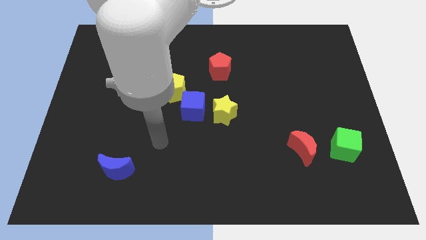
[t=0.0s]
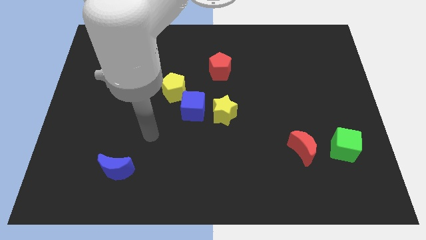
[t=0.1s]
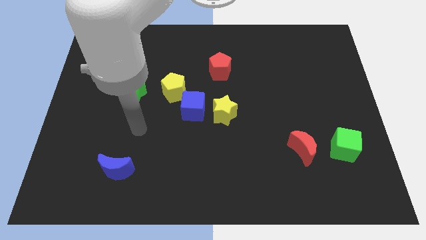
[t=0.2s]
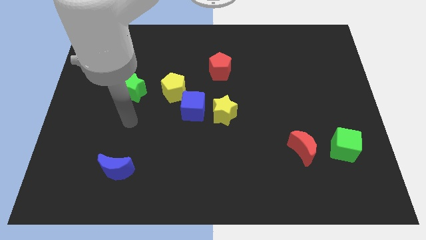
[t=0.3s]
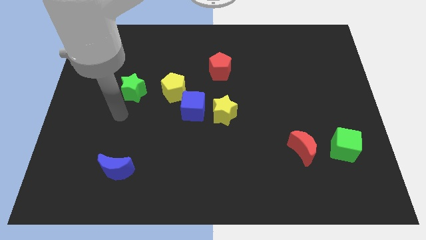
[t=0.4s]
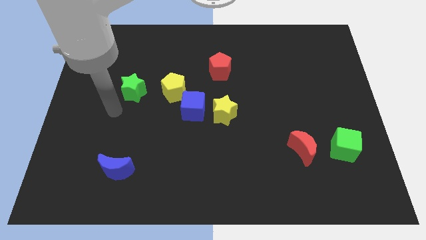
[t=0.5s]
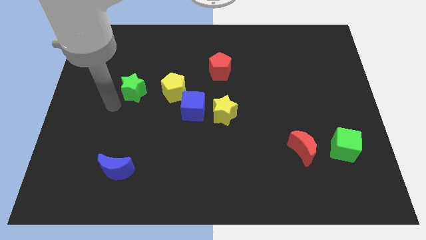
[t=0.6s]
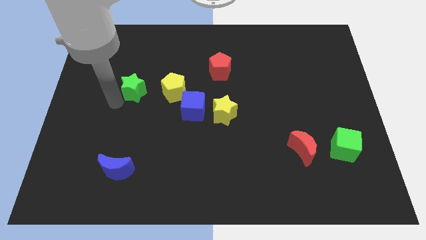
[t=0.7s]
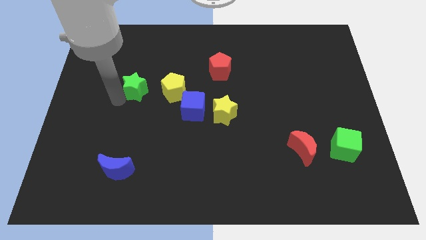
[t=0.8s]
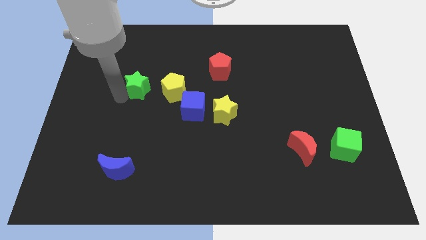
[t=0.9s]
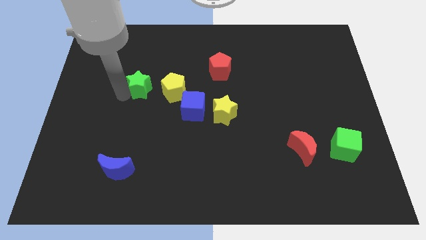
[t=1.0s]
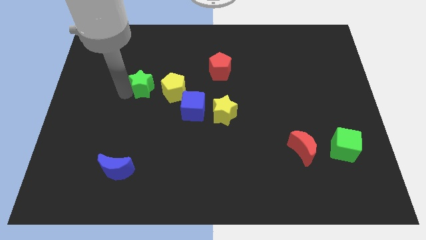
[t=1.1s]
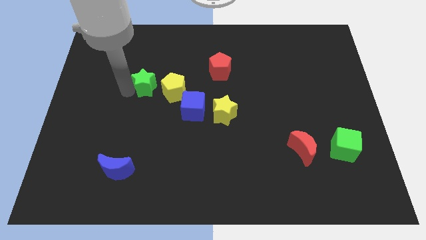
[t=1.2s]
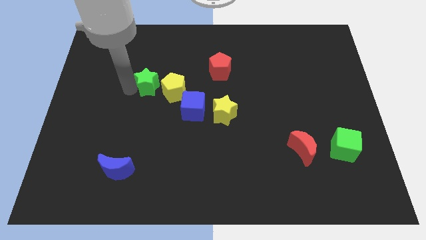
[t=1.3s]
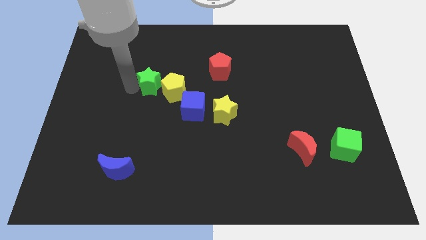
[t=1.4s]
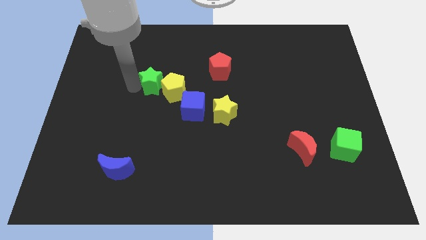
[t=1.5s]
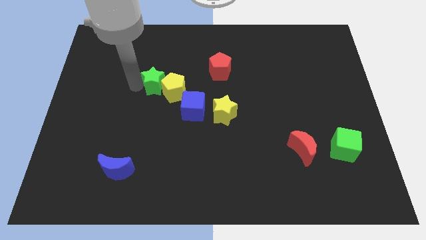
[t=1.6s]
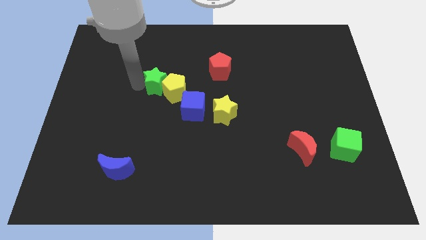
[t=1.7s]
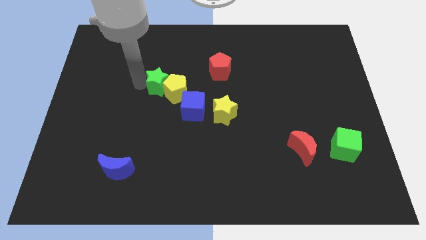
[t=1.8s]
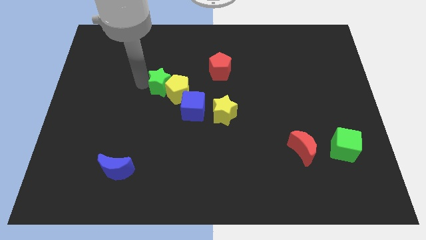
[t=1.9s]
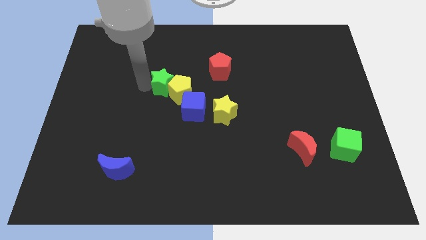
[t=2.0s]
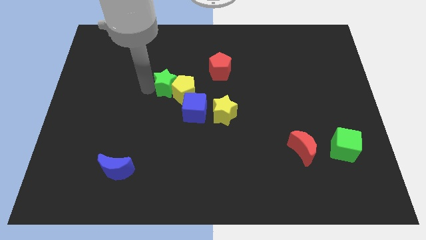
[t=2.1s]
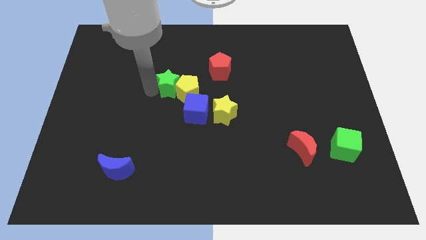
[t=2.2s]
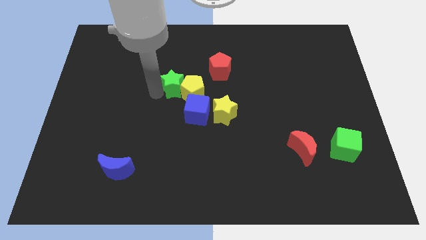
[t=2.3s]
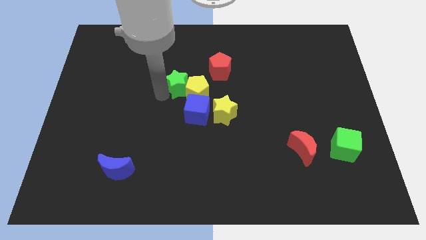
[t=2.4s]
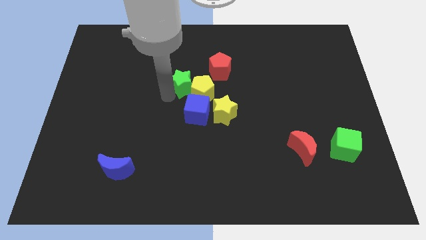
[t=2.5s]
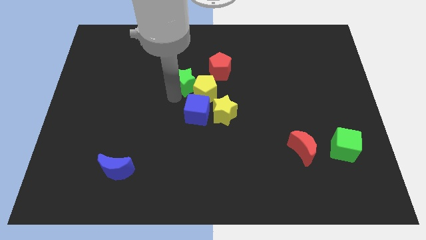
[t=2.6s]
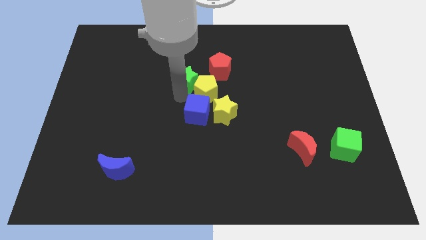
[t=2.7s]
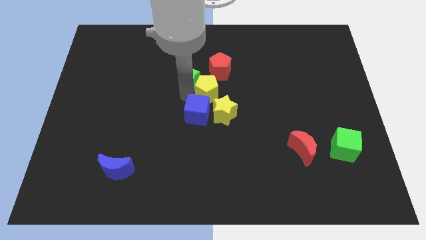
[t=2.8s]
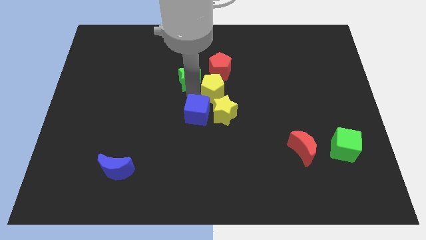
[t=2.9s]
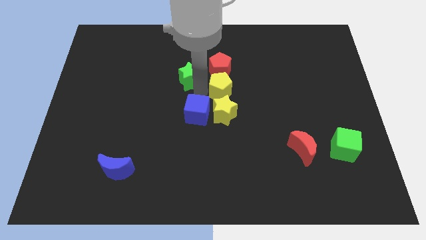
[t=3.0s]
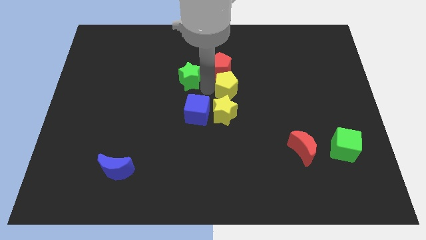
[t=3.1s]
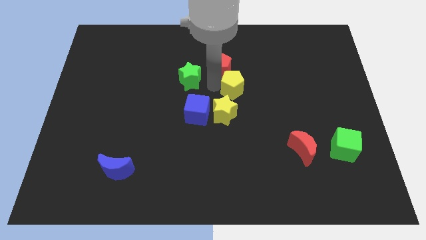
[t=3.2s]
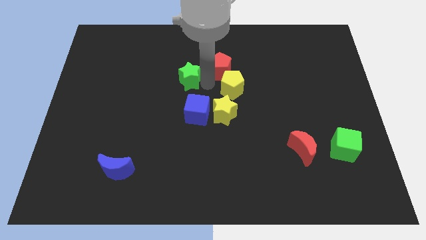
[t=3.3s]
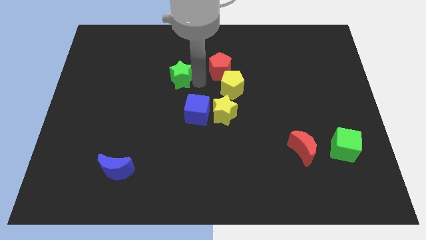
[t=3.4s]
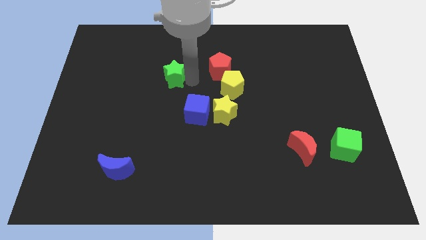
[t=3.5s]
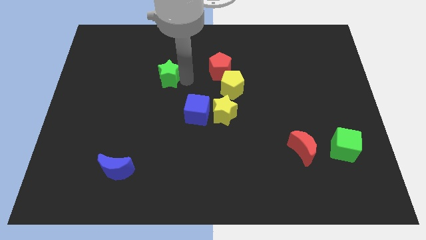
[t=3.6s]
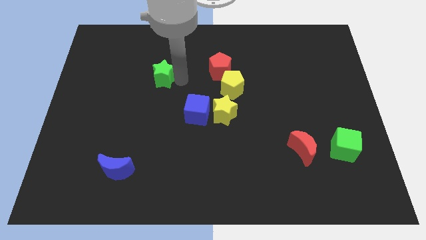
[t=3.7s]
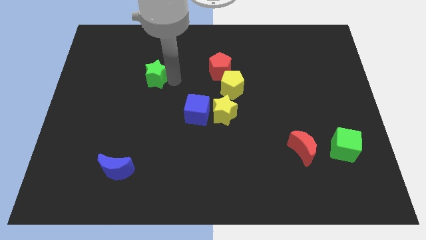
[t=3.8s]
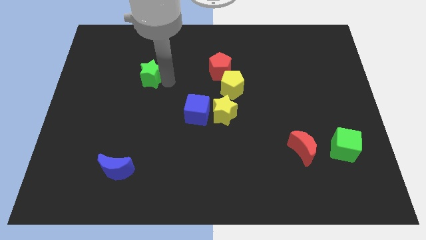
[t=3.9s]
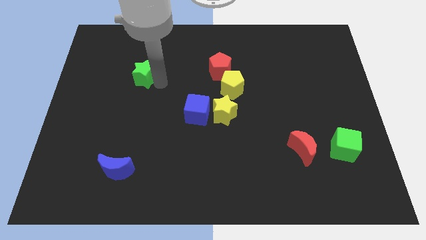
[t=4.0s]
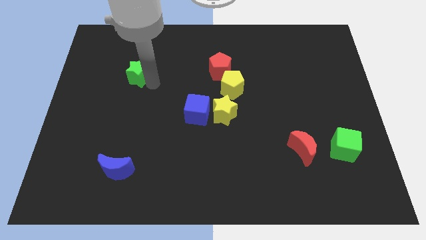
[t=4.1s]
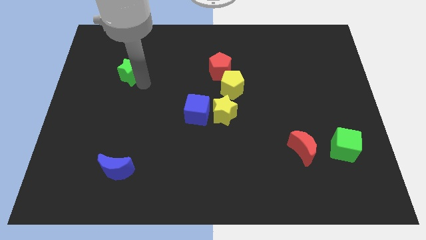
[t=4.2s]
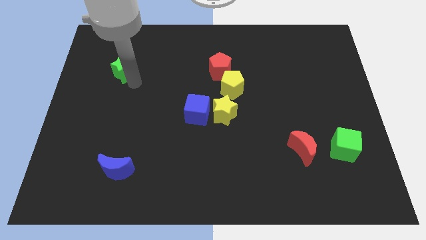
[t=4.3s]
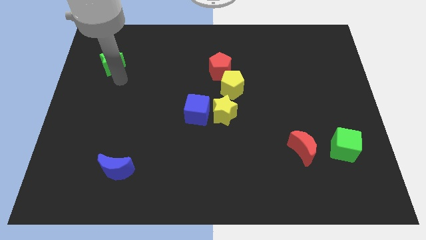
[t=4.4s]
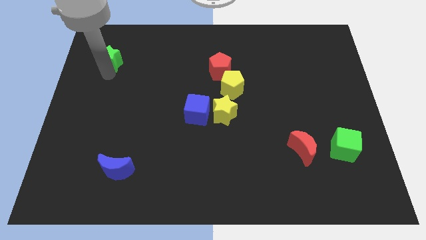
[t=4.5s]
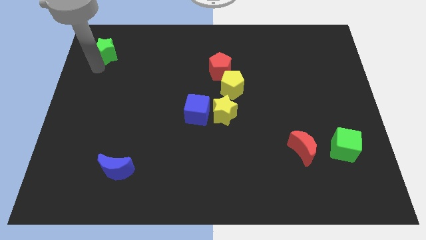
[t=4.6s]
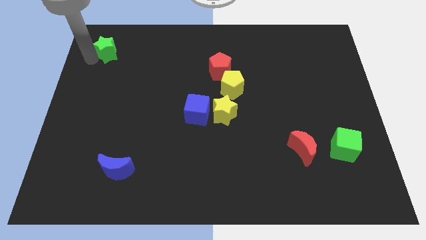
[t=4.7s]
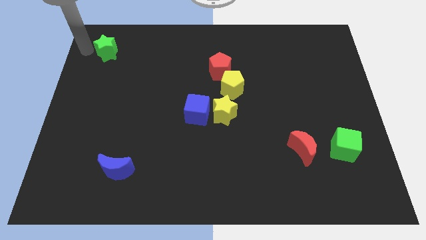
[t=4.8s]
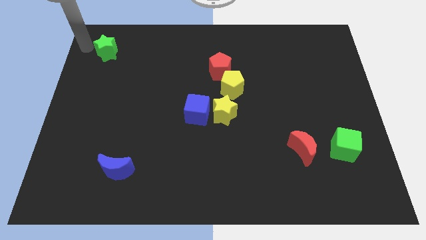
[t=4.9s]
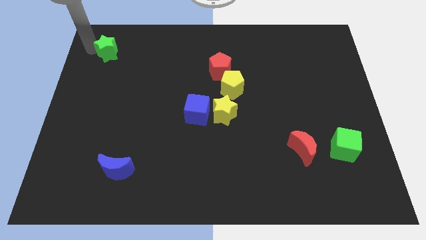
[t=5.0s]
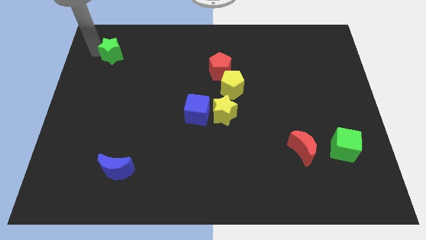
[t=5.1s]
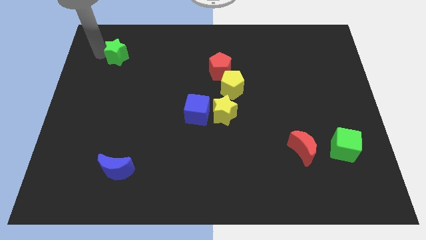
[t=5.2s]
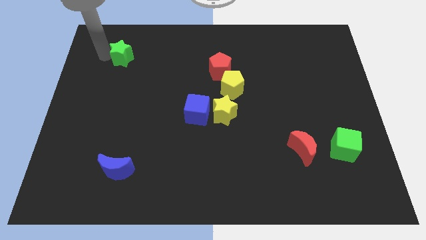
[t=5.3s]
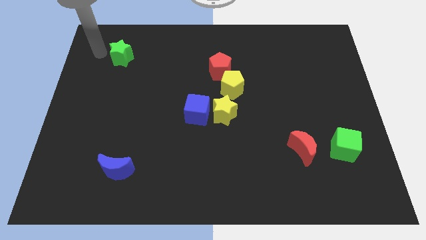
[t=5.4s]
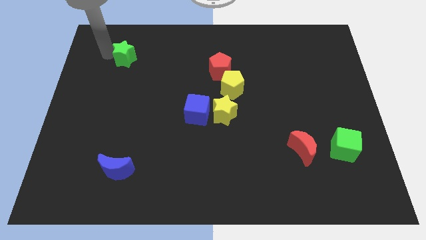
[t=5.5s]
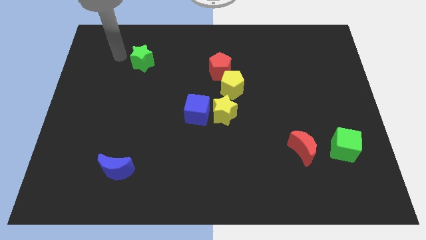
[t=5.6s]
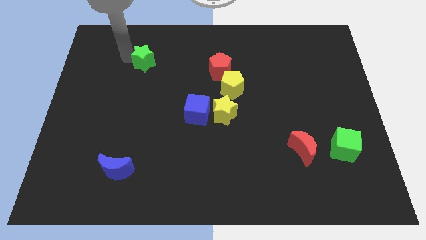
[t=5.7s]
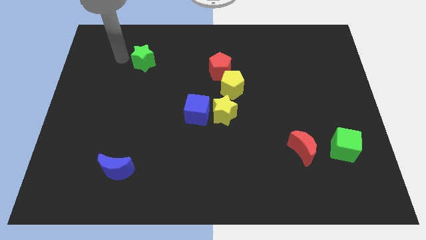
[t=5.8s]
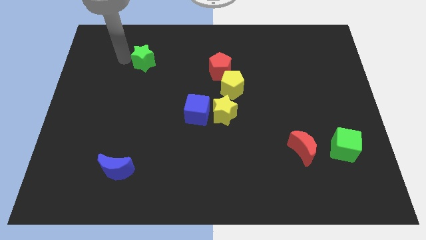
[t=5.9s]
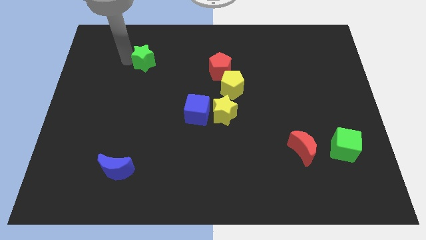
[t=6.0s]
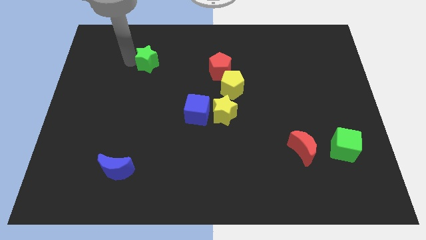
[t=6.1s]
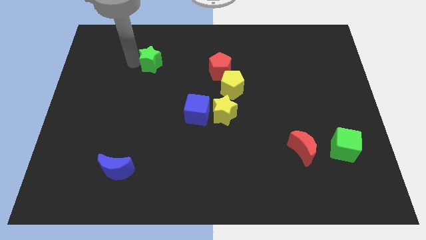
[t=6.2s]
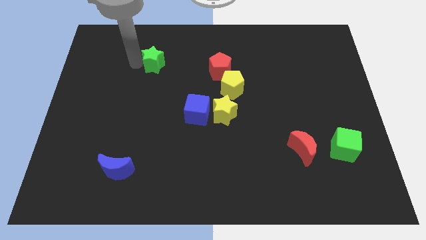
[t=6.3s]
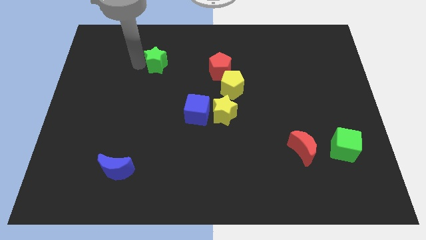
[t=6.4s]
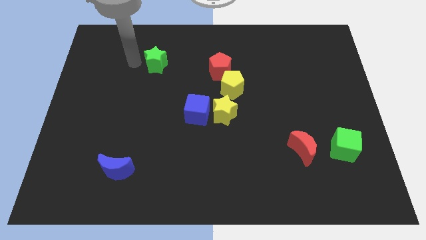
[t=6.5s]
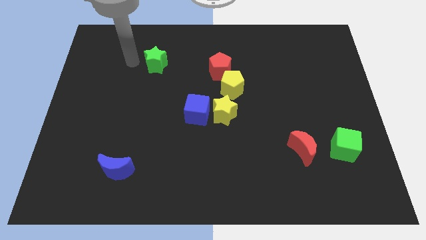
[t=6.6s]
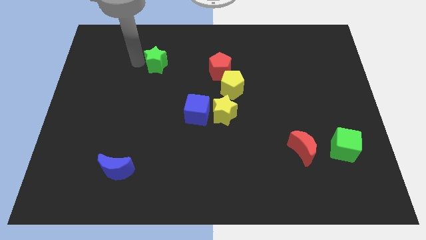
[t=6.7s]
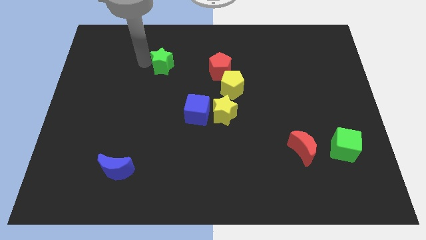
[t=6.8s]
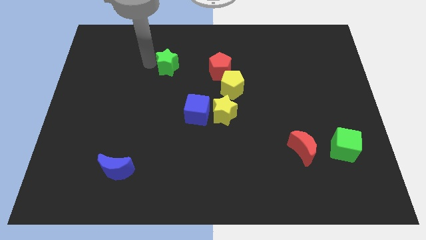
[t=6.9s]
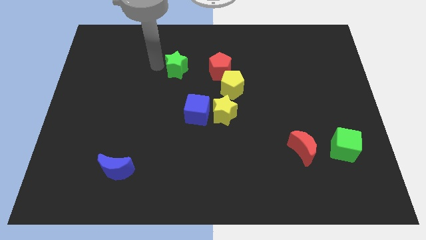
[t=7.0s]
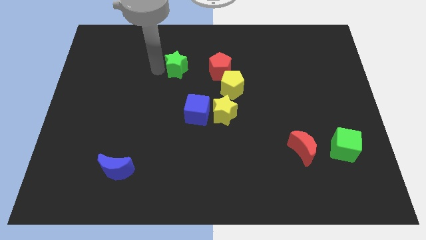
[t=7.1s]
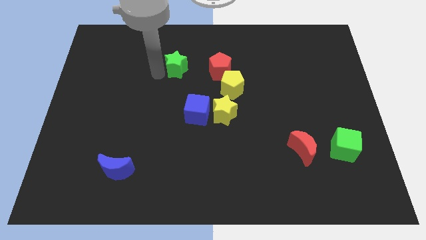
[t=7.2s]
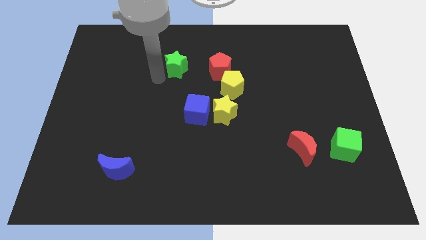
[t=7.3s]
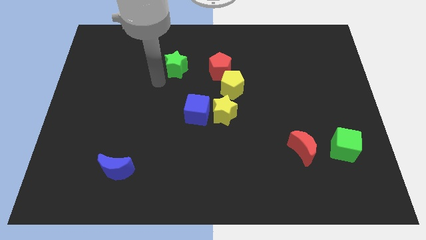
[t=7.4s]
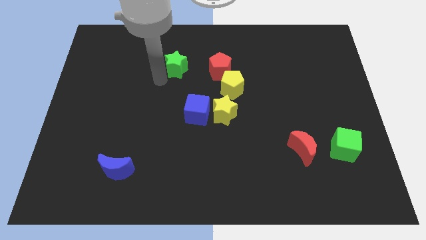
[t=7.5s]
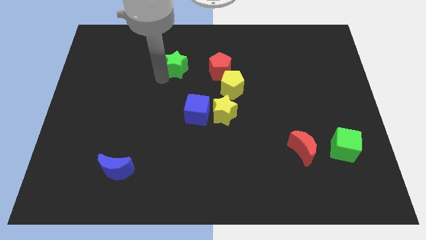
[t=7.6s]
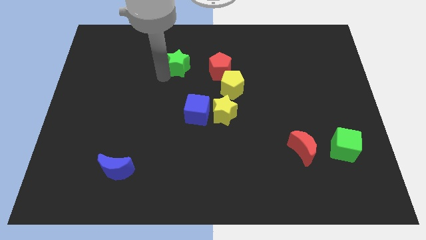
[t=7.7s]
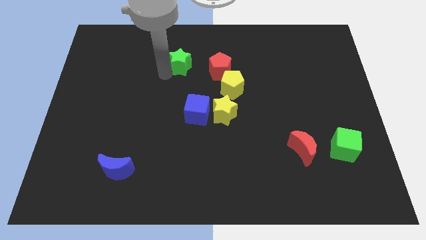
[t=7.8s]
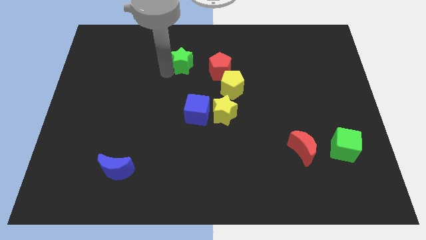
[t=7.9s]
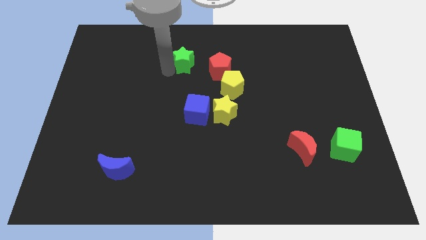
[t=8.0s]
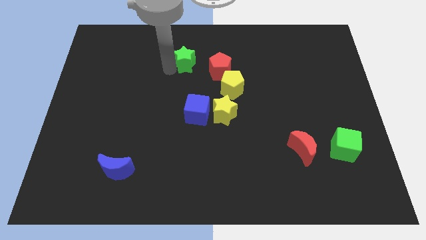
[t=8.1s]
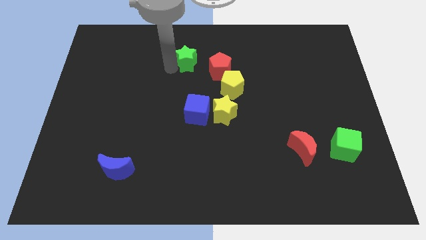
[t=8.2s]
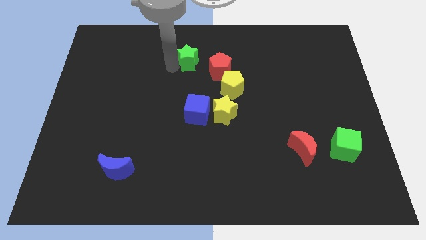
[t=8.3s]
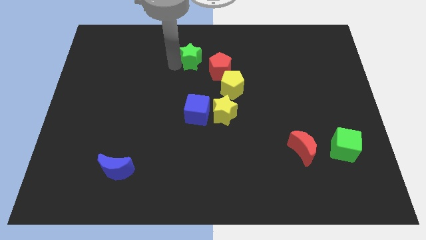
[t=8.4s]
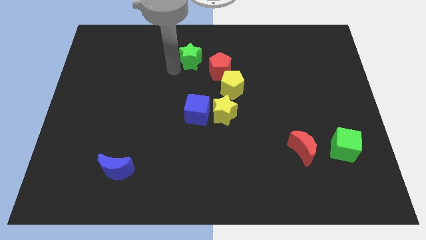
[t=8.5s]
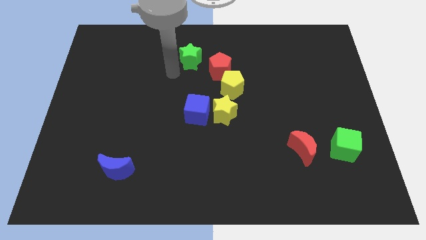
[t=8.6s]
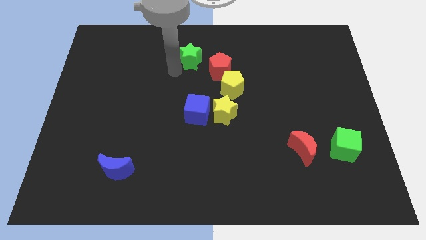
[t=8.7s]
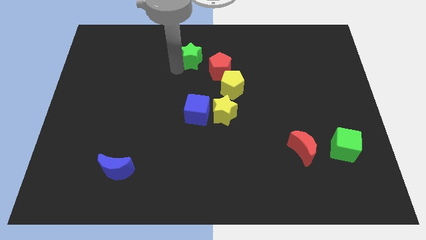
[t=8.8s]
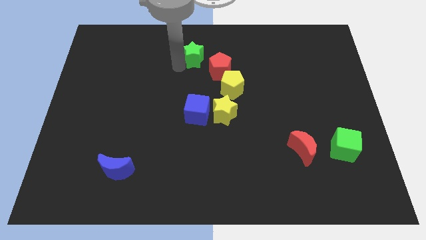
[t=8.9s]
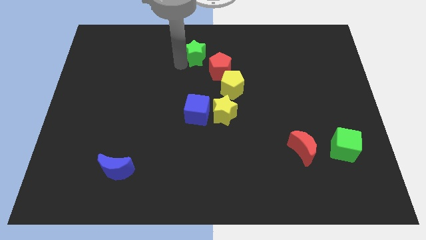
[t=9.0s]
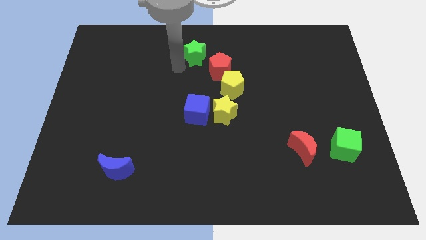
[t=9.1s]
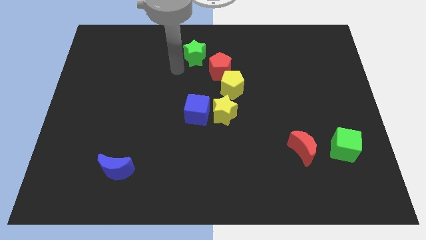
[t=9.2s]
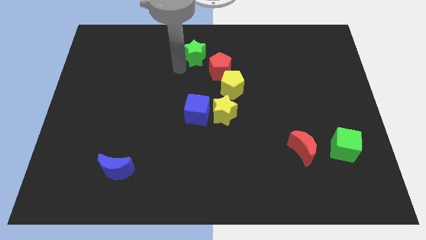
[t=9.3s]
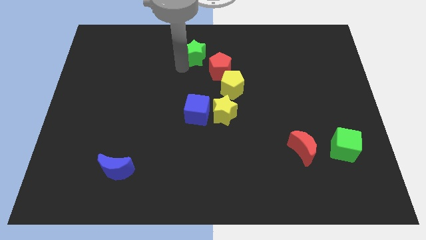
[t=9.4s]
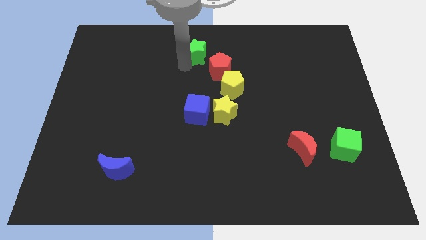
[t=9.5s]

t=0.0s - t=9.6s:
slide the green star to the top
